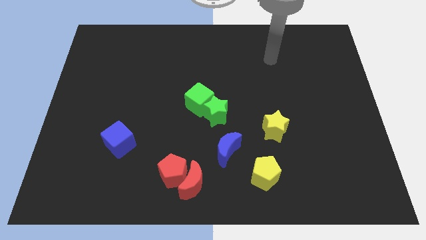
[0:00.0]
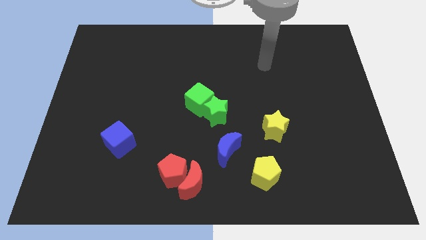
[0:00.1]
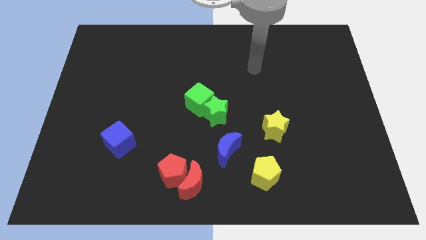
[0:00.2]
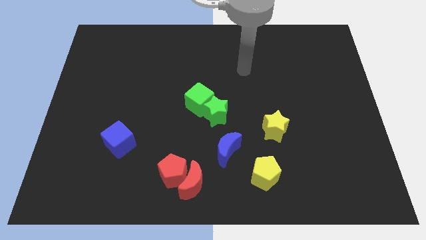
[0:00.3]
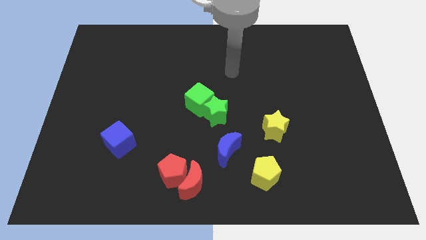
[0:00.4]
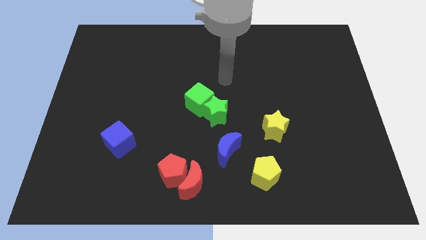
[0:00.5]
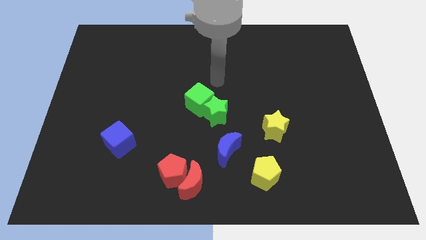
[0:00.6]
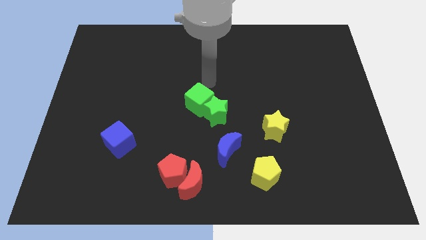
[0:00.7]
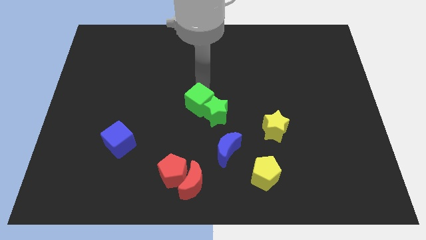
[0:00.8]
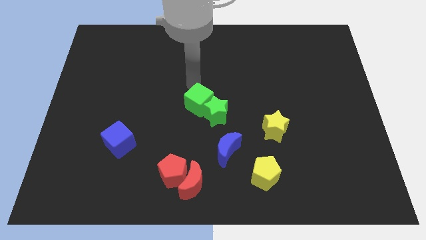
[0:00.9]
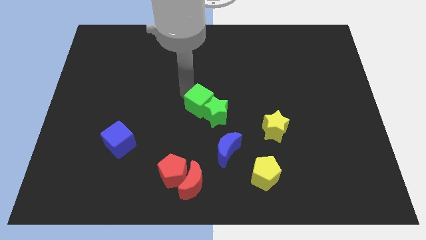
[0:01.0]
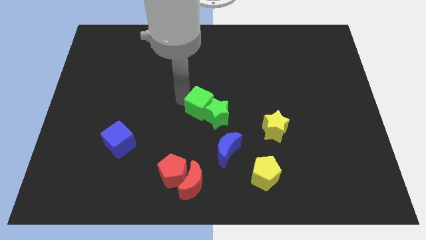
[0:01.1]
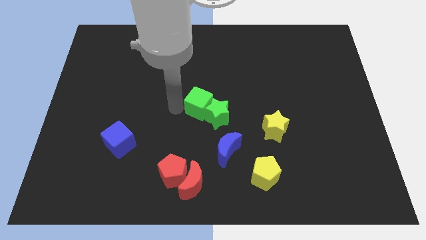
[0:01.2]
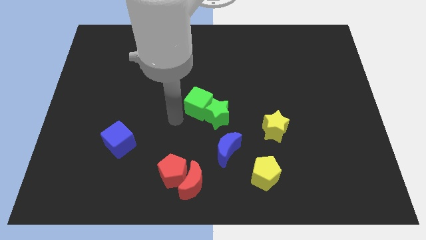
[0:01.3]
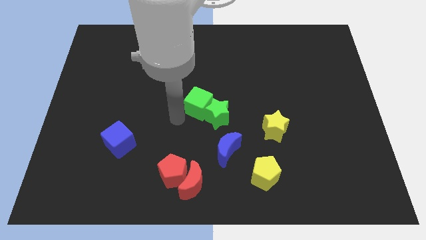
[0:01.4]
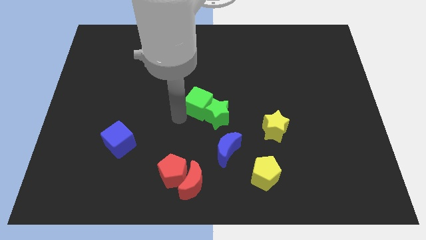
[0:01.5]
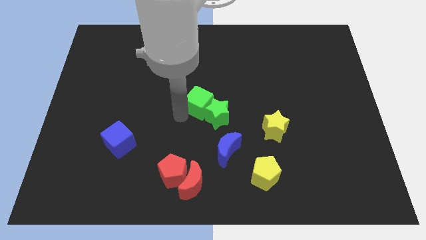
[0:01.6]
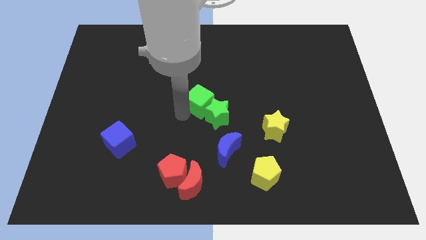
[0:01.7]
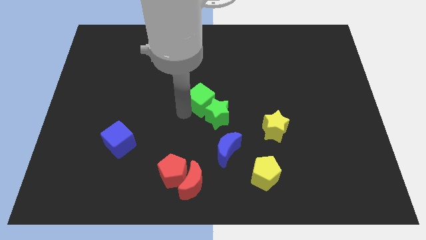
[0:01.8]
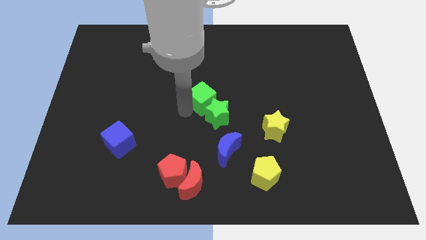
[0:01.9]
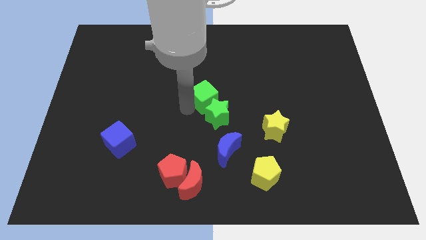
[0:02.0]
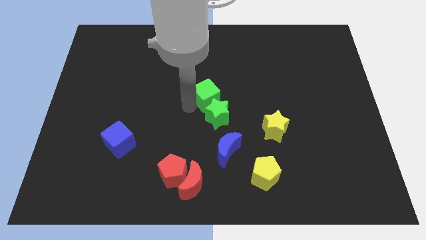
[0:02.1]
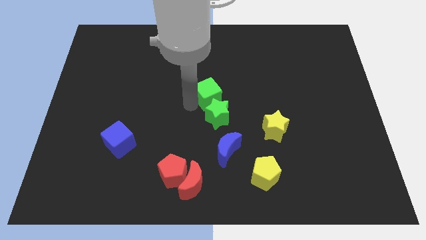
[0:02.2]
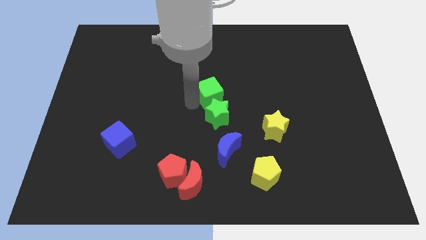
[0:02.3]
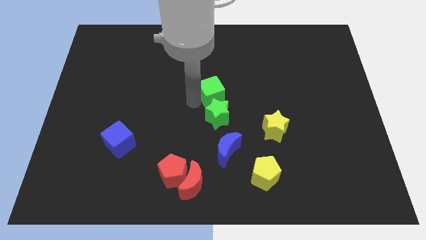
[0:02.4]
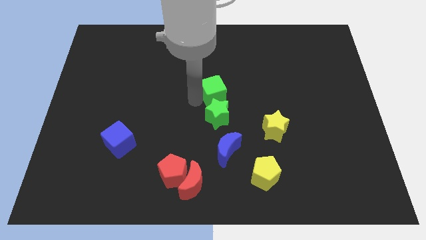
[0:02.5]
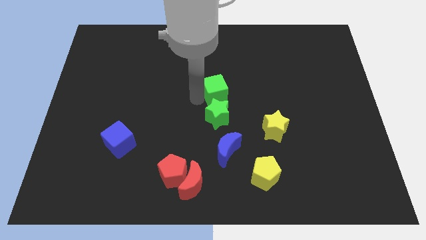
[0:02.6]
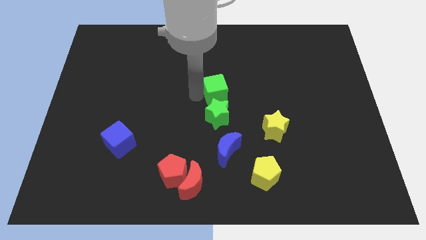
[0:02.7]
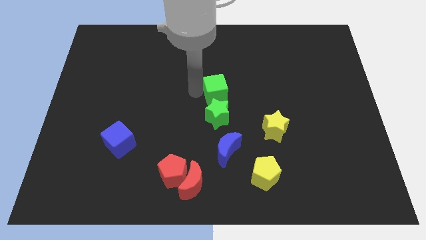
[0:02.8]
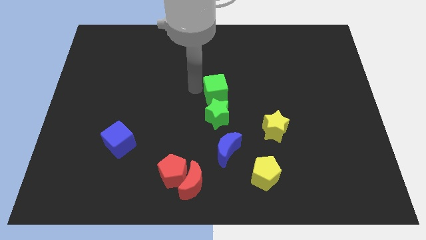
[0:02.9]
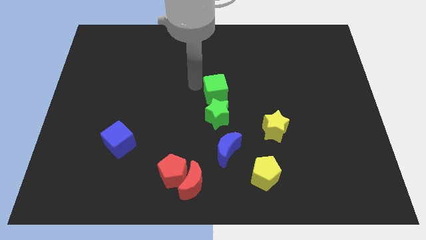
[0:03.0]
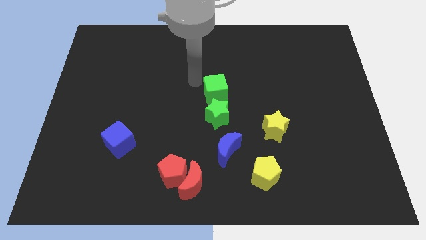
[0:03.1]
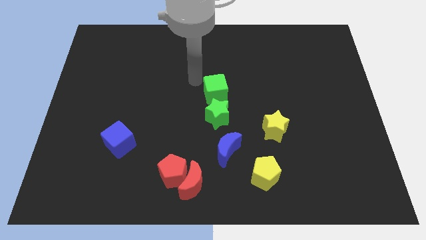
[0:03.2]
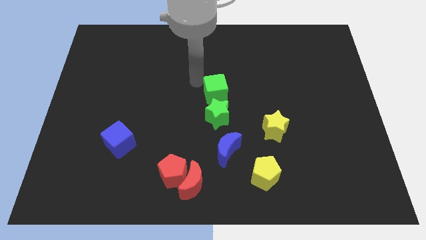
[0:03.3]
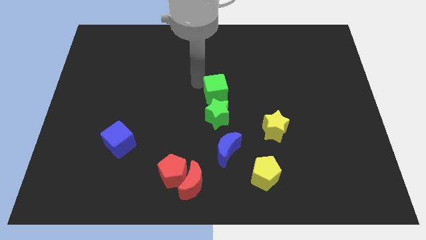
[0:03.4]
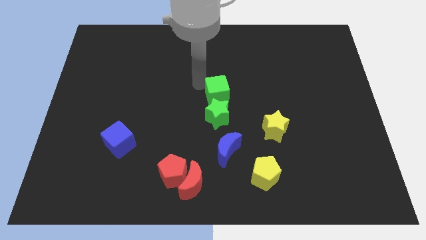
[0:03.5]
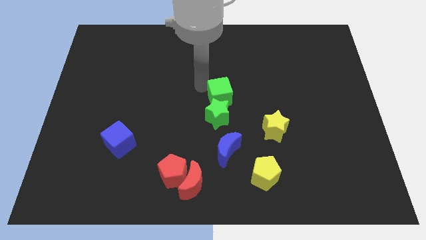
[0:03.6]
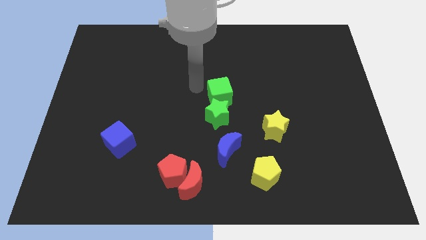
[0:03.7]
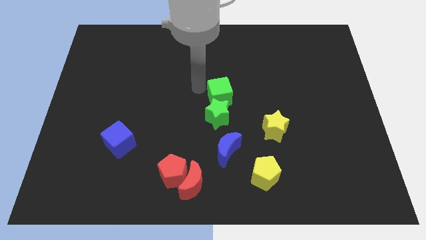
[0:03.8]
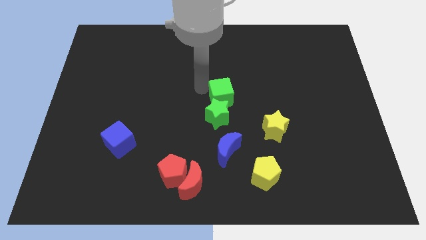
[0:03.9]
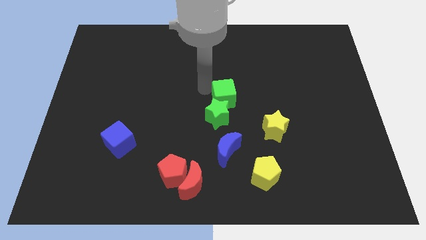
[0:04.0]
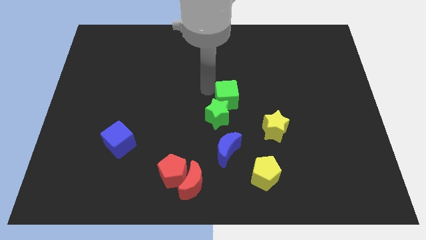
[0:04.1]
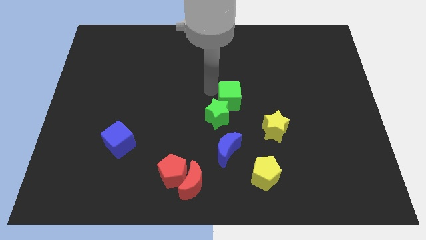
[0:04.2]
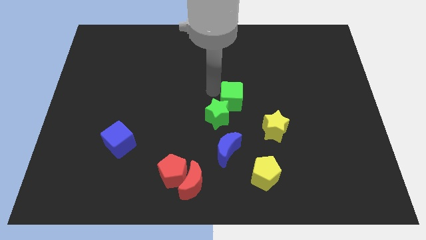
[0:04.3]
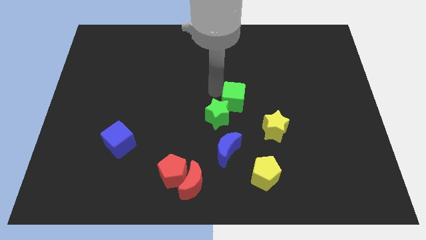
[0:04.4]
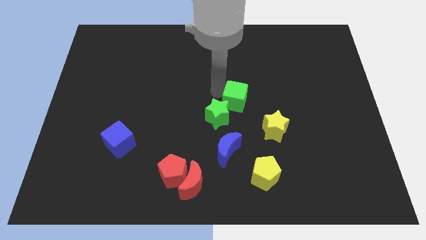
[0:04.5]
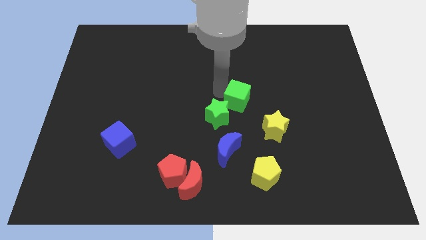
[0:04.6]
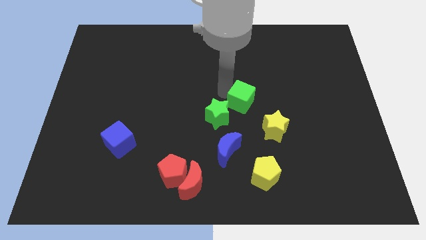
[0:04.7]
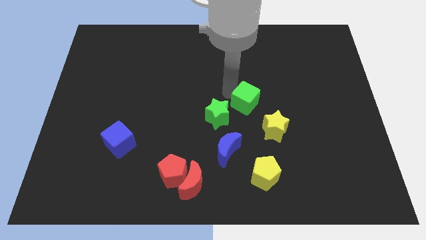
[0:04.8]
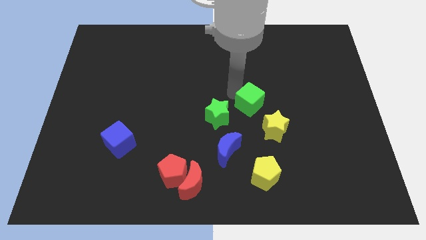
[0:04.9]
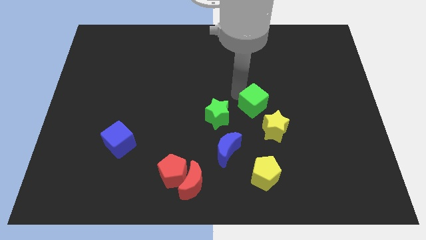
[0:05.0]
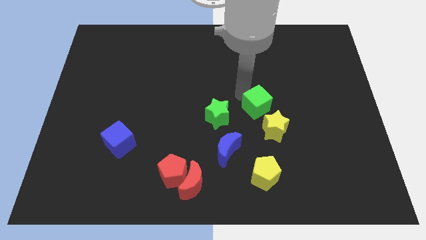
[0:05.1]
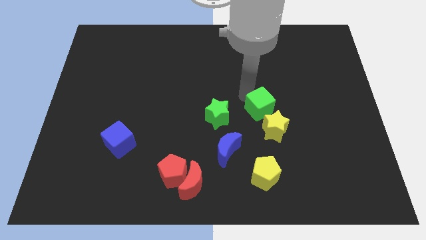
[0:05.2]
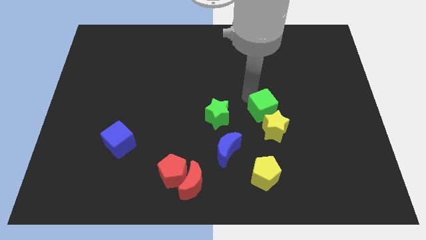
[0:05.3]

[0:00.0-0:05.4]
slide the green cube towards the yellow star

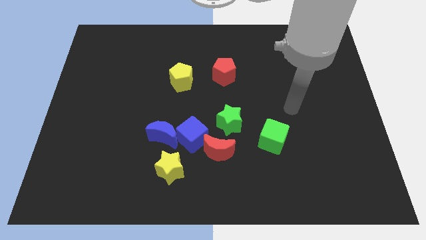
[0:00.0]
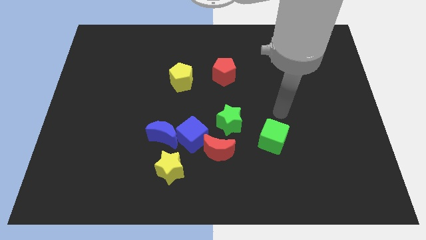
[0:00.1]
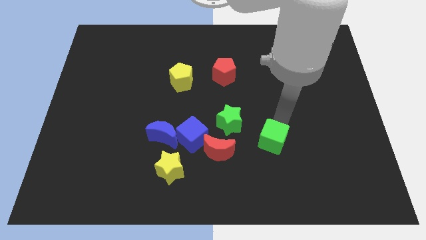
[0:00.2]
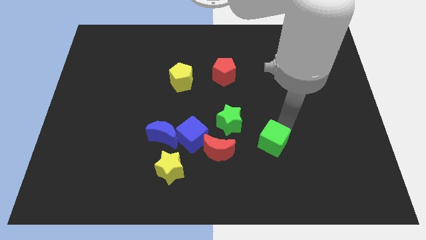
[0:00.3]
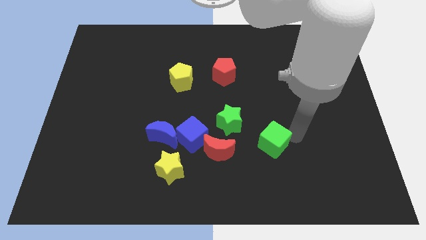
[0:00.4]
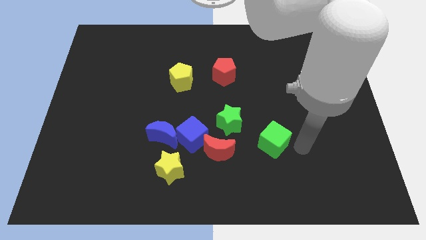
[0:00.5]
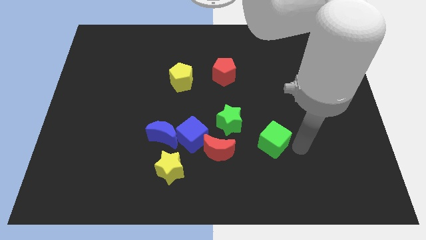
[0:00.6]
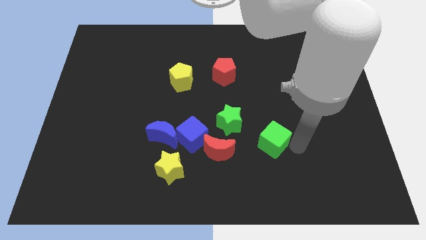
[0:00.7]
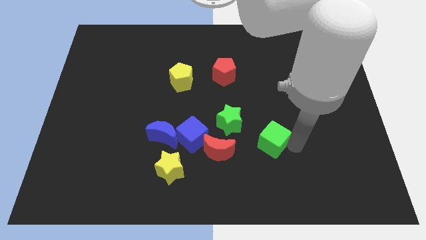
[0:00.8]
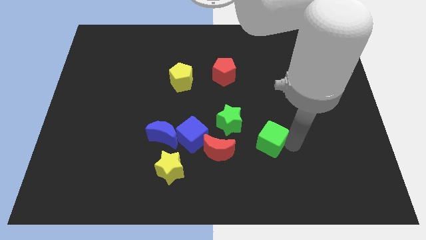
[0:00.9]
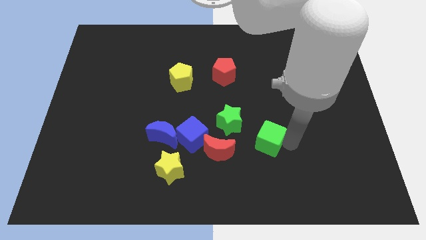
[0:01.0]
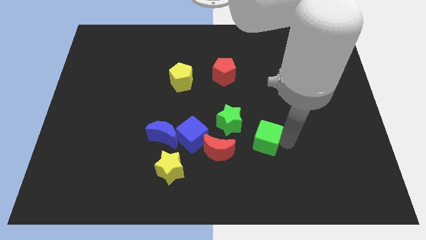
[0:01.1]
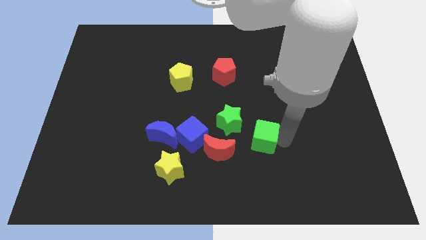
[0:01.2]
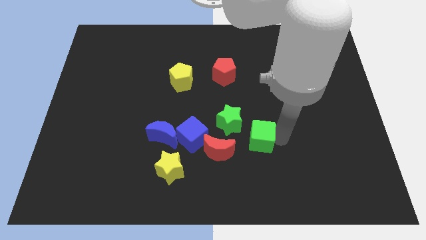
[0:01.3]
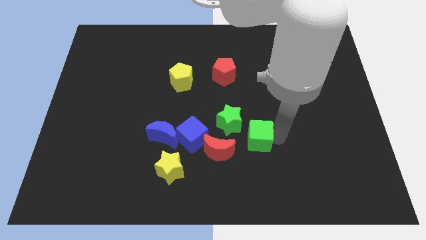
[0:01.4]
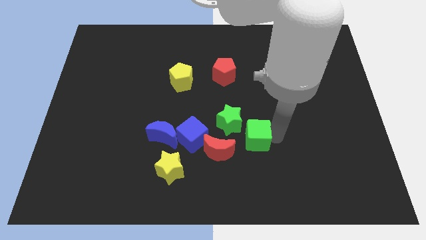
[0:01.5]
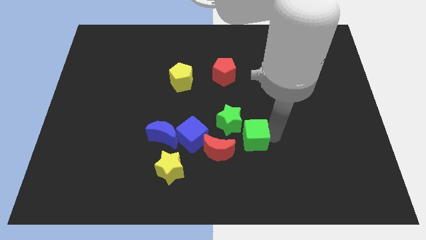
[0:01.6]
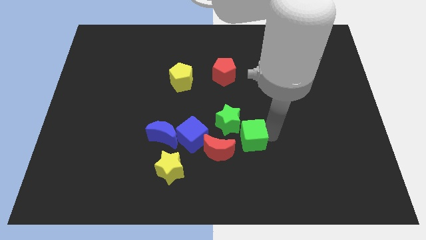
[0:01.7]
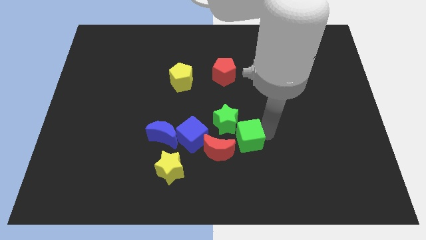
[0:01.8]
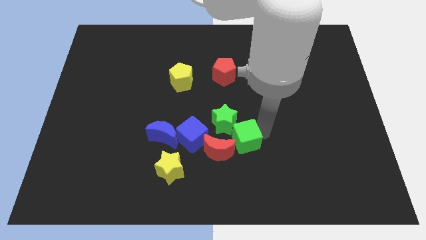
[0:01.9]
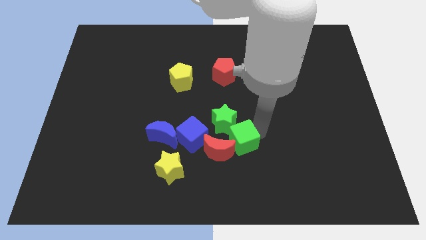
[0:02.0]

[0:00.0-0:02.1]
move the green cube towards the red moon
